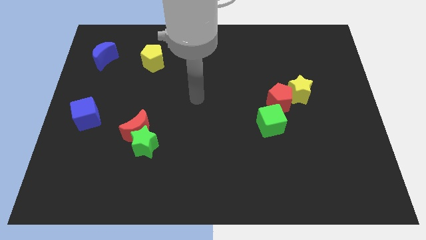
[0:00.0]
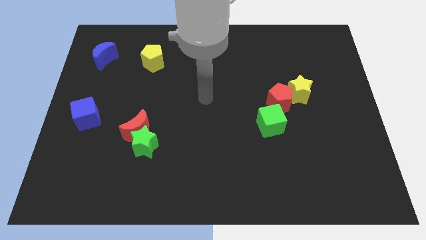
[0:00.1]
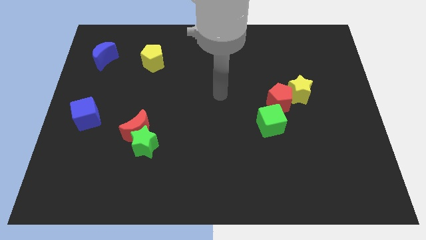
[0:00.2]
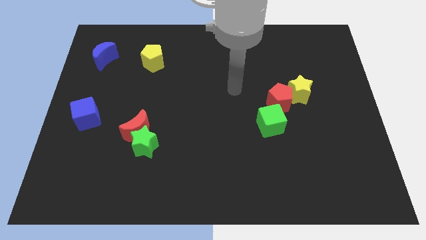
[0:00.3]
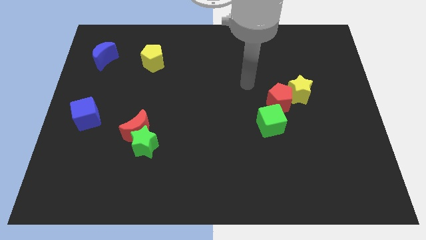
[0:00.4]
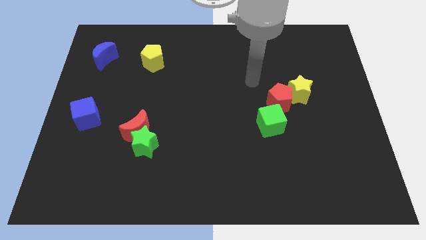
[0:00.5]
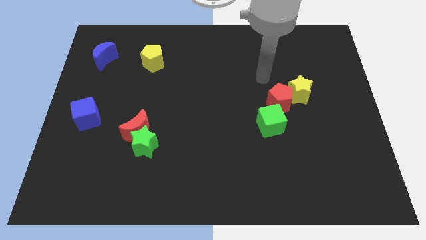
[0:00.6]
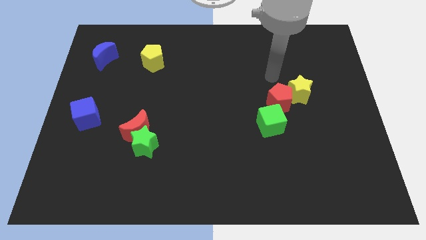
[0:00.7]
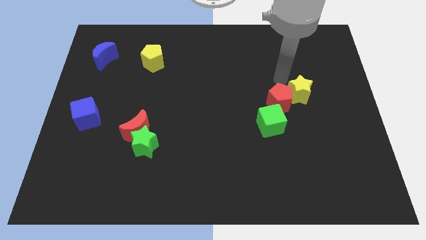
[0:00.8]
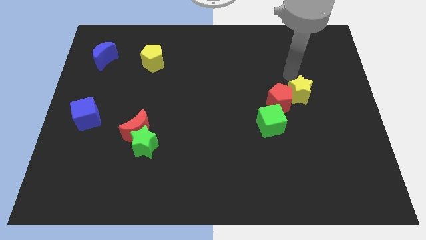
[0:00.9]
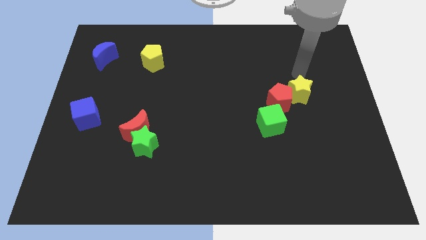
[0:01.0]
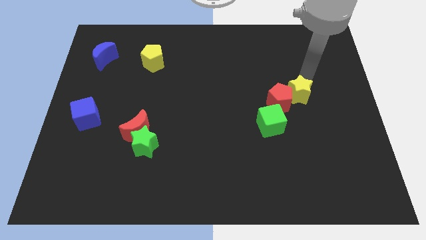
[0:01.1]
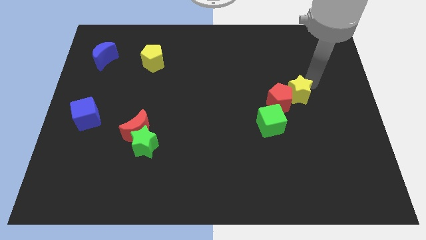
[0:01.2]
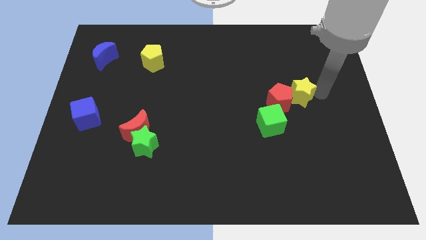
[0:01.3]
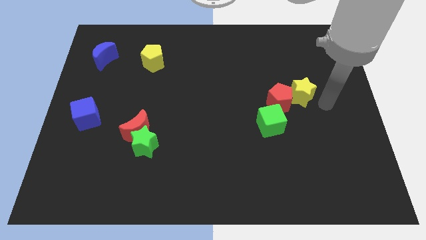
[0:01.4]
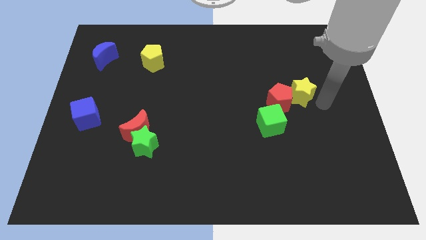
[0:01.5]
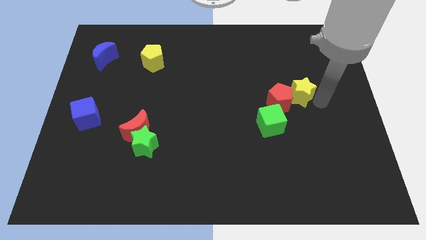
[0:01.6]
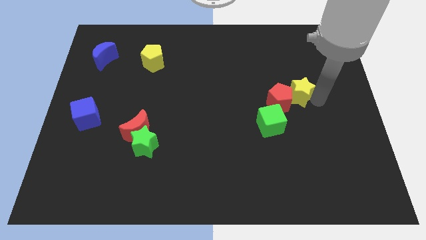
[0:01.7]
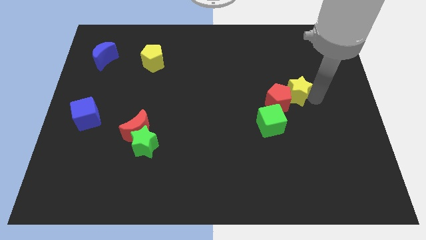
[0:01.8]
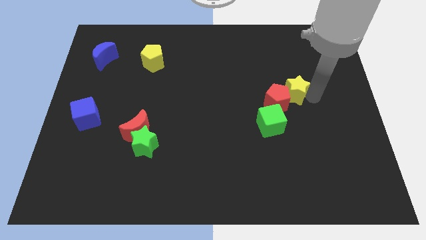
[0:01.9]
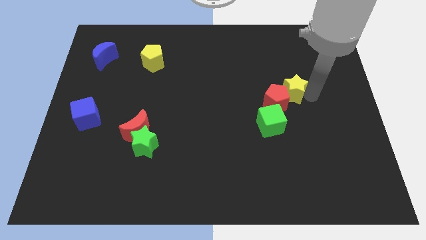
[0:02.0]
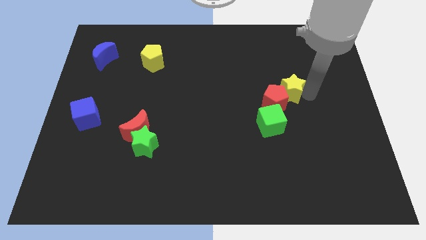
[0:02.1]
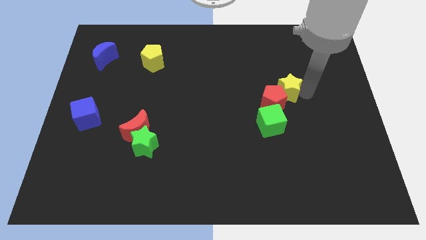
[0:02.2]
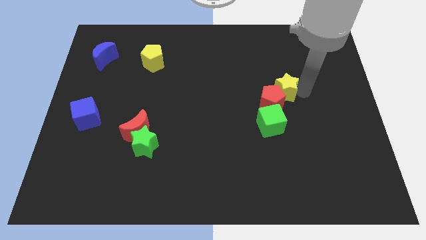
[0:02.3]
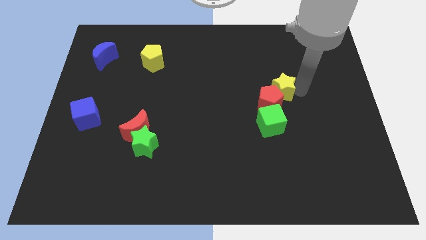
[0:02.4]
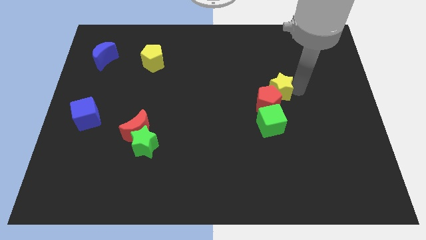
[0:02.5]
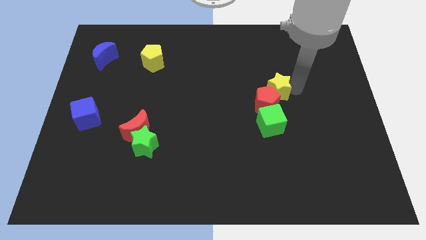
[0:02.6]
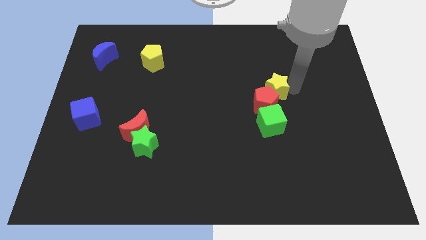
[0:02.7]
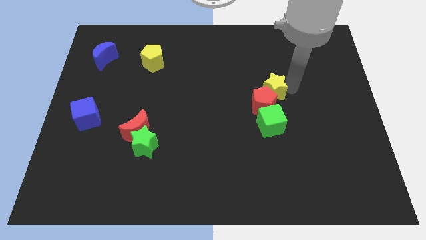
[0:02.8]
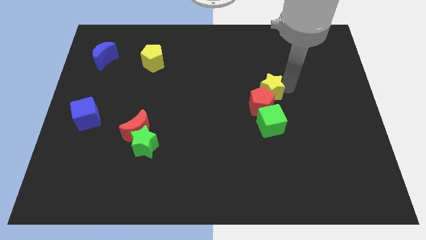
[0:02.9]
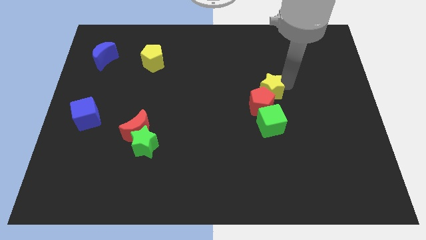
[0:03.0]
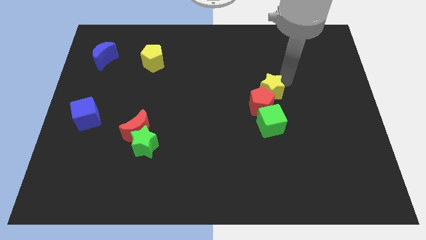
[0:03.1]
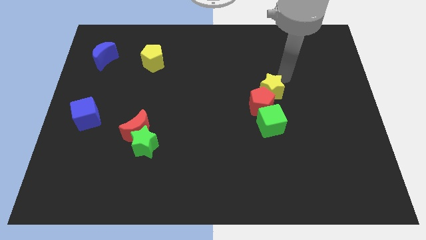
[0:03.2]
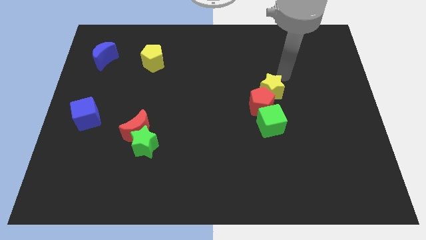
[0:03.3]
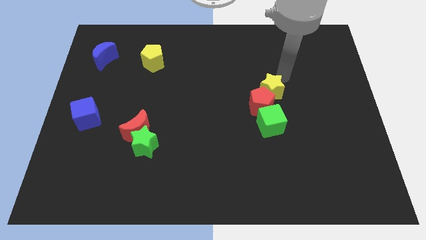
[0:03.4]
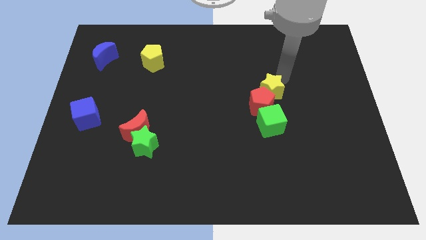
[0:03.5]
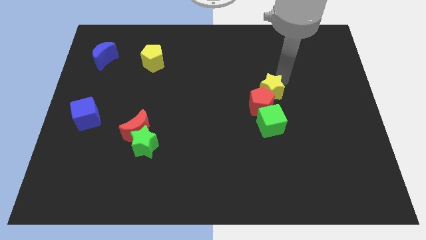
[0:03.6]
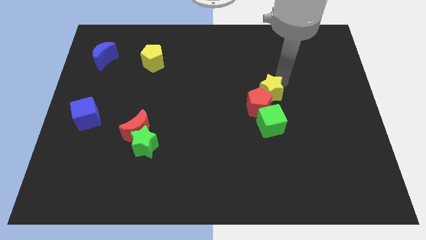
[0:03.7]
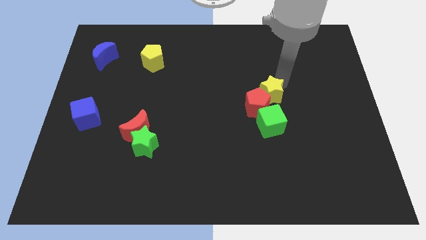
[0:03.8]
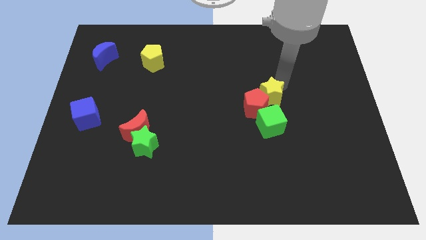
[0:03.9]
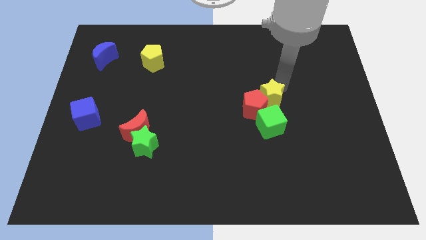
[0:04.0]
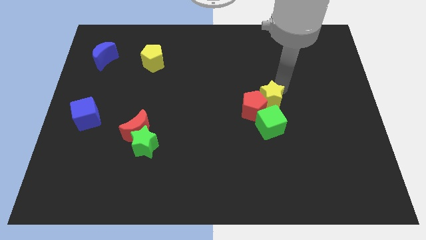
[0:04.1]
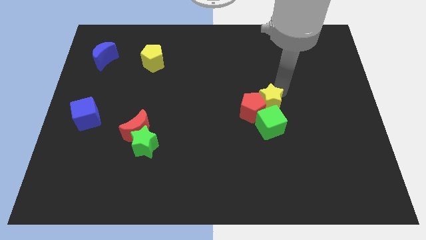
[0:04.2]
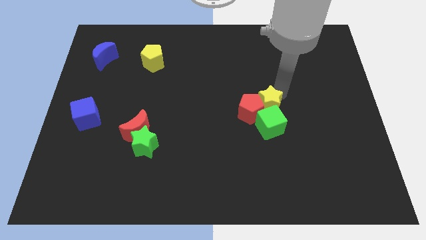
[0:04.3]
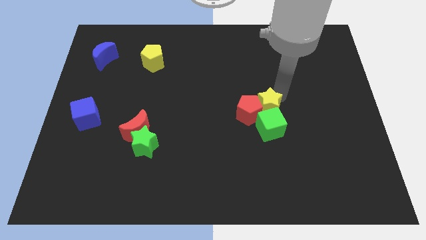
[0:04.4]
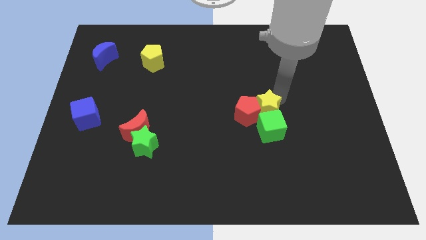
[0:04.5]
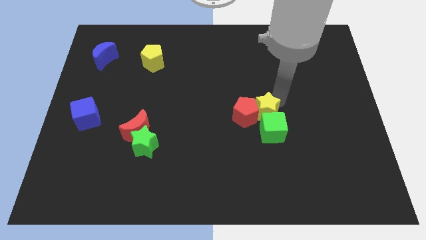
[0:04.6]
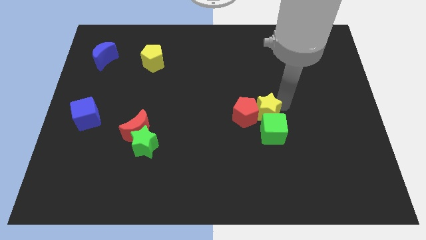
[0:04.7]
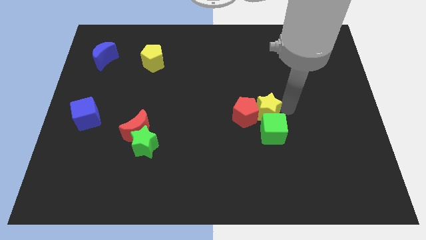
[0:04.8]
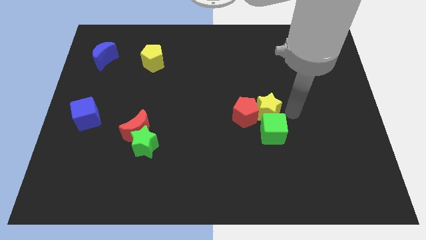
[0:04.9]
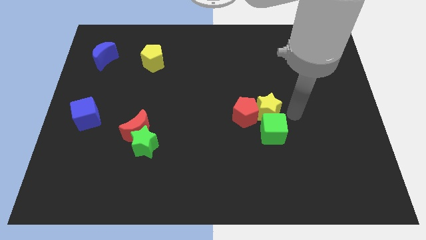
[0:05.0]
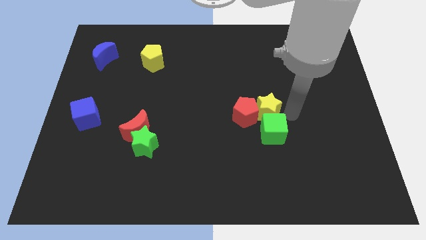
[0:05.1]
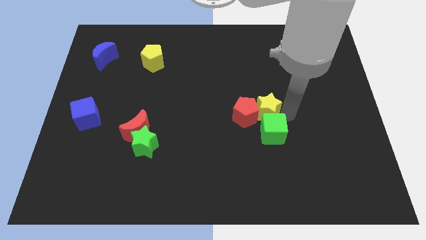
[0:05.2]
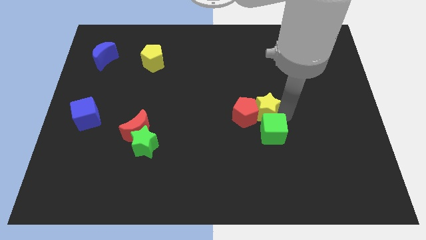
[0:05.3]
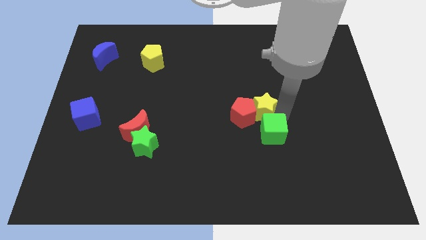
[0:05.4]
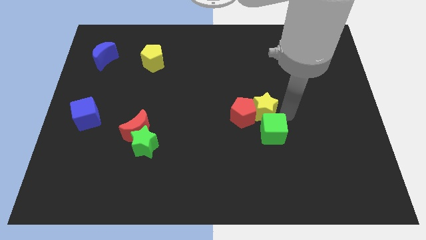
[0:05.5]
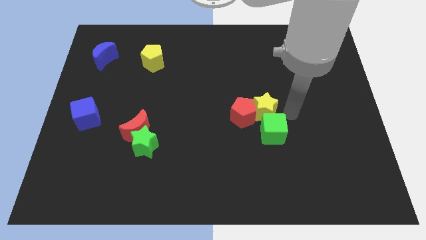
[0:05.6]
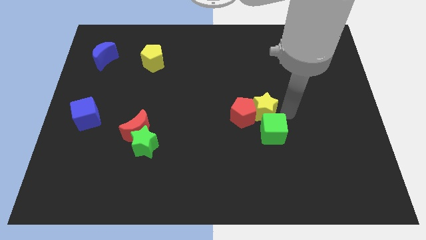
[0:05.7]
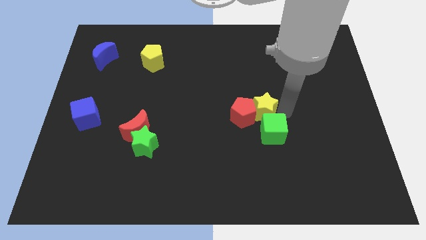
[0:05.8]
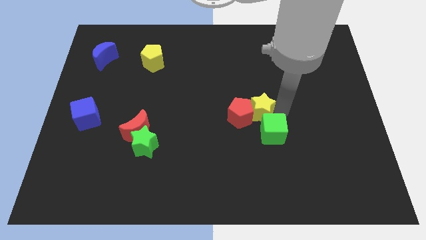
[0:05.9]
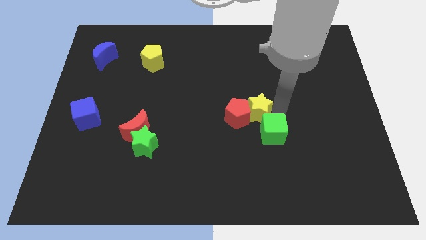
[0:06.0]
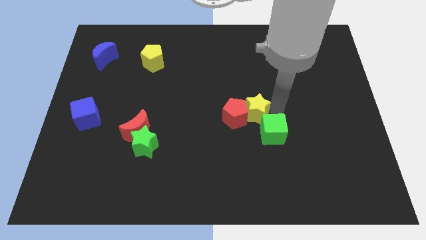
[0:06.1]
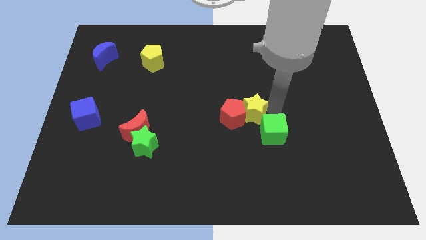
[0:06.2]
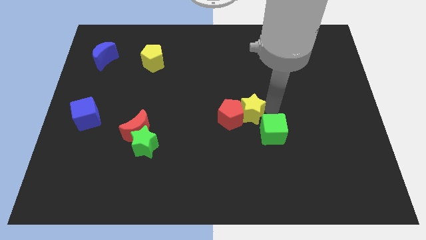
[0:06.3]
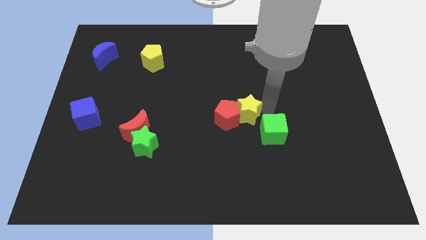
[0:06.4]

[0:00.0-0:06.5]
slide the yellow star left of the green cube

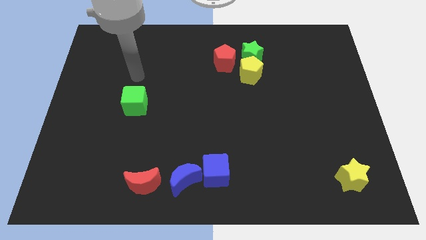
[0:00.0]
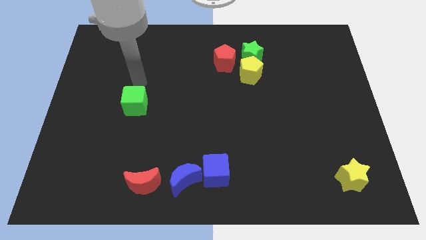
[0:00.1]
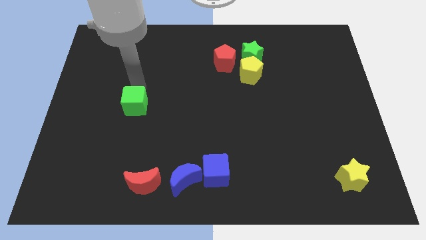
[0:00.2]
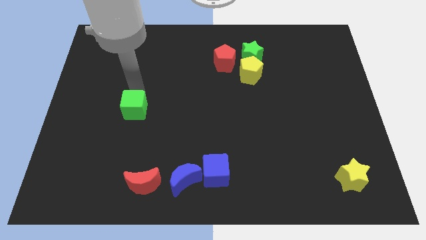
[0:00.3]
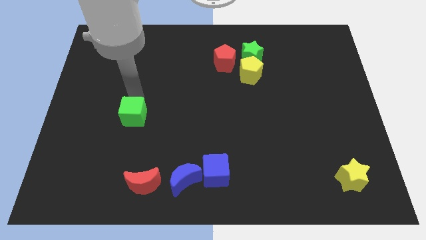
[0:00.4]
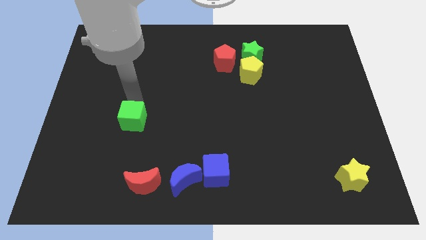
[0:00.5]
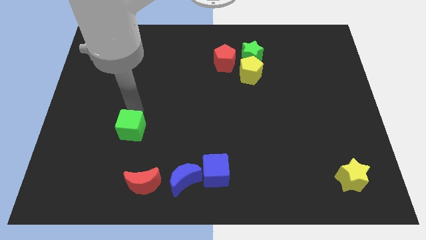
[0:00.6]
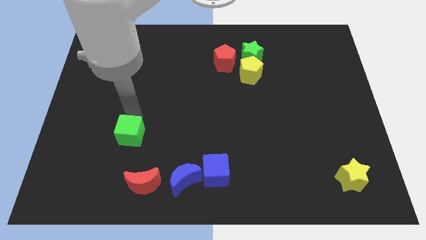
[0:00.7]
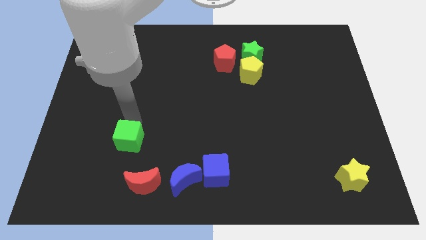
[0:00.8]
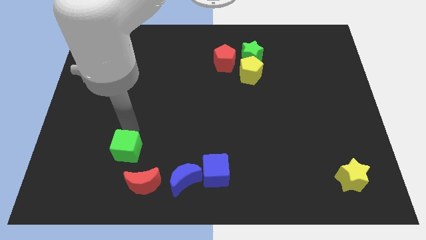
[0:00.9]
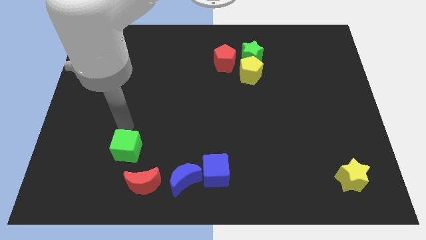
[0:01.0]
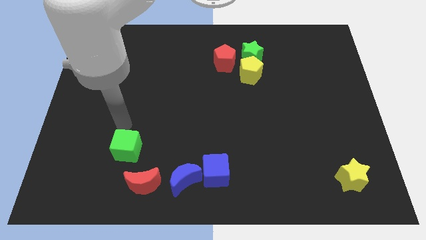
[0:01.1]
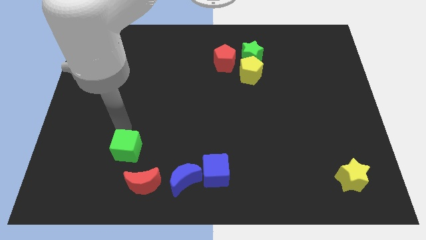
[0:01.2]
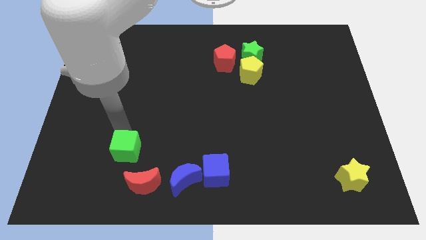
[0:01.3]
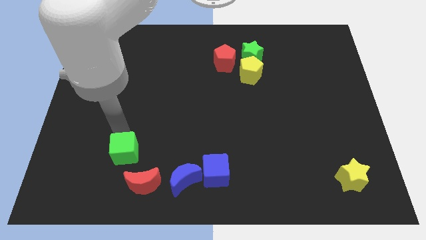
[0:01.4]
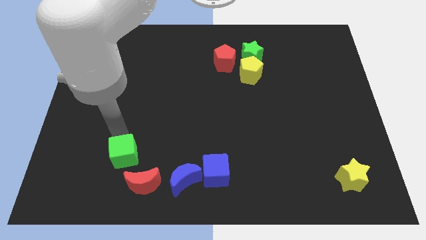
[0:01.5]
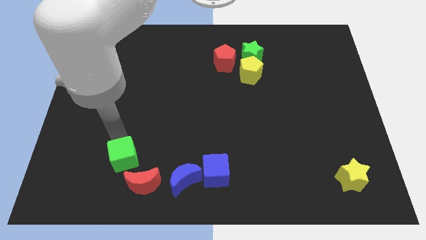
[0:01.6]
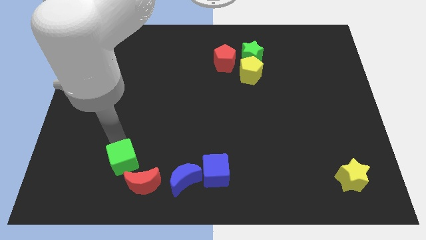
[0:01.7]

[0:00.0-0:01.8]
slide the green cube to the left of the blue moon
